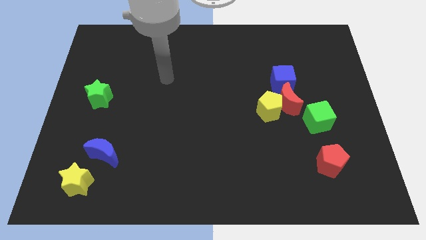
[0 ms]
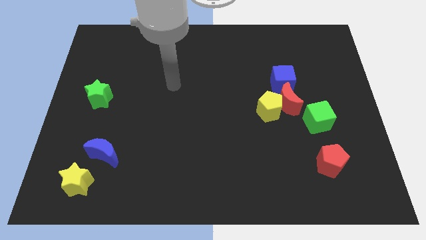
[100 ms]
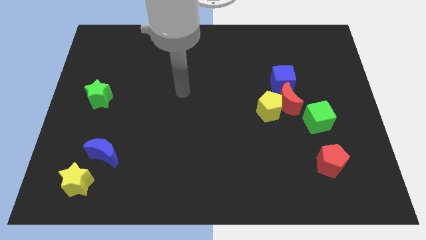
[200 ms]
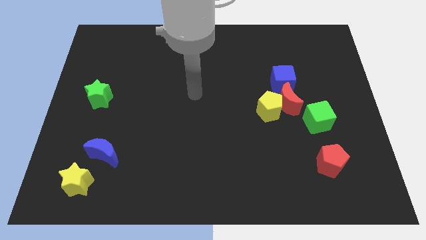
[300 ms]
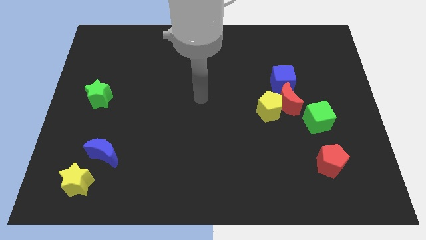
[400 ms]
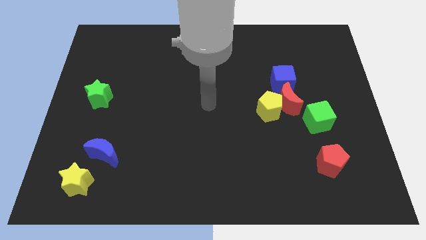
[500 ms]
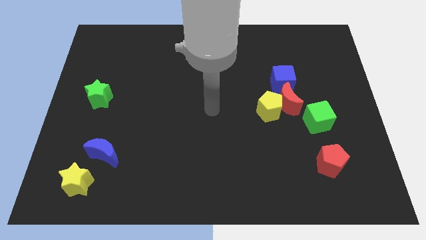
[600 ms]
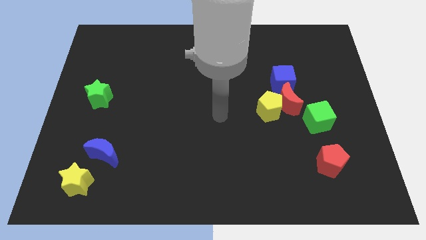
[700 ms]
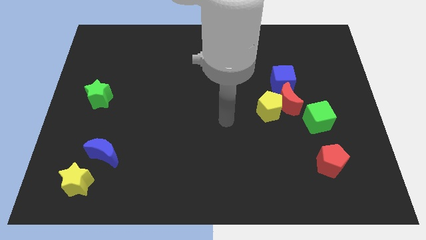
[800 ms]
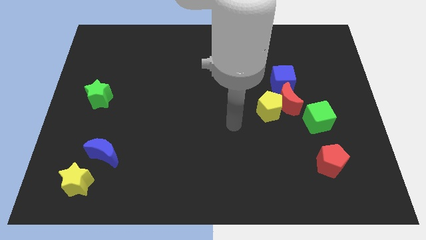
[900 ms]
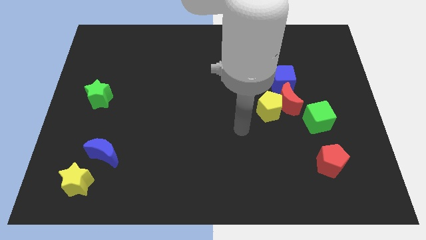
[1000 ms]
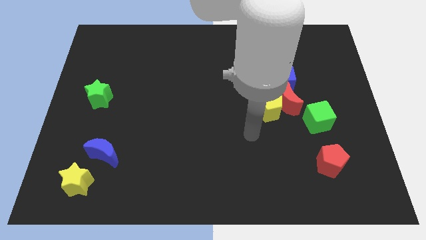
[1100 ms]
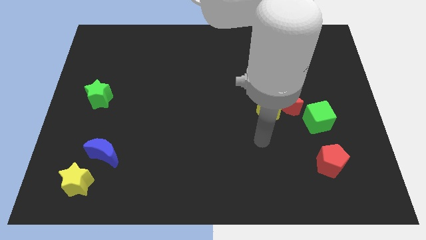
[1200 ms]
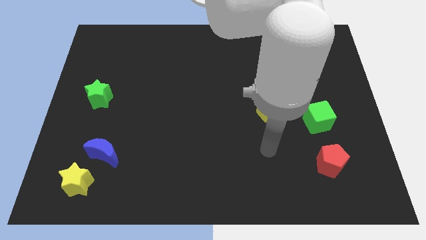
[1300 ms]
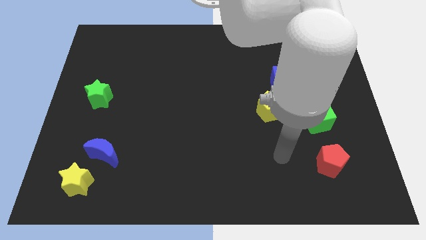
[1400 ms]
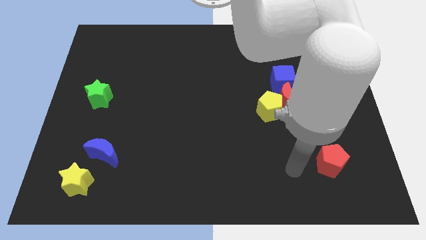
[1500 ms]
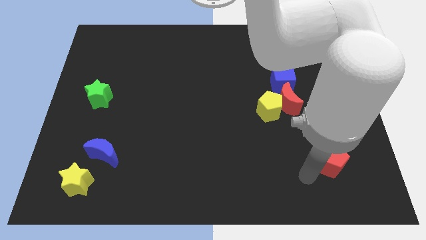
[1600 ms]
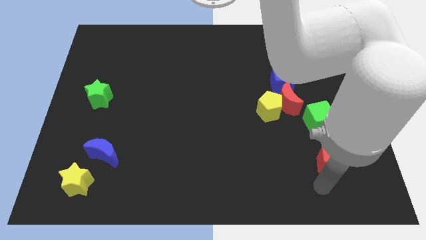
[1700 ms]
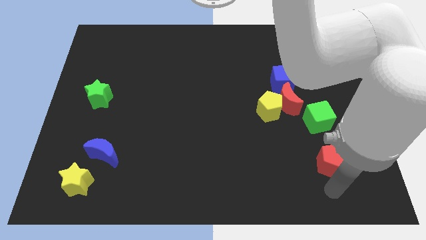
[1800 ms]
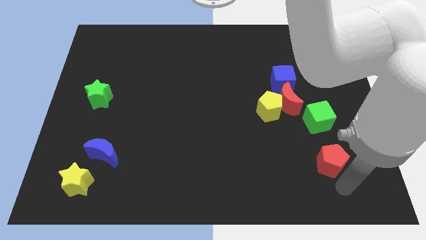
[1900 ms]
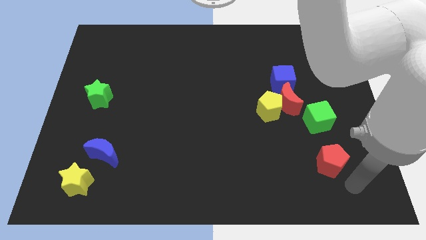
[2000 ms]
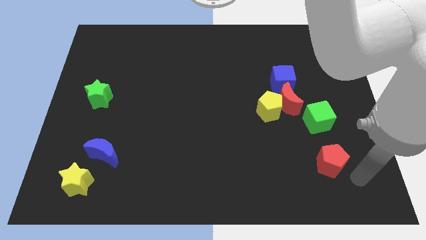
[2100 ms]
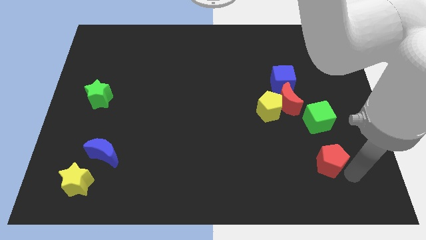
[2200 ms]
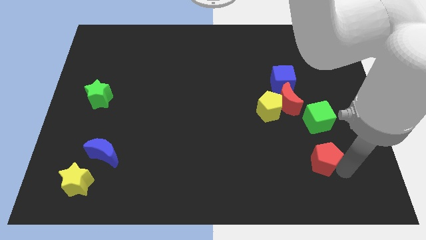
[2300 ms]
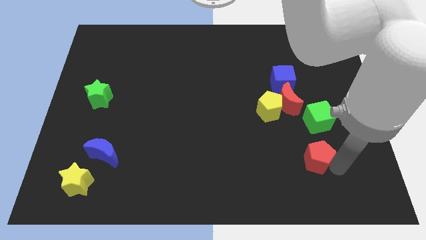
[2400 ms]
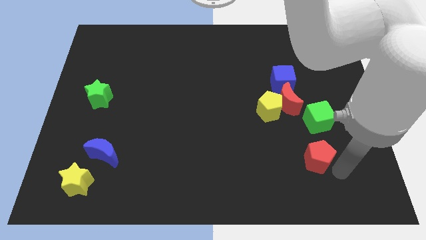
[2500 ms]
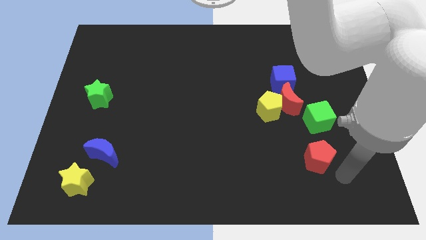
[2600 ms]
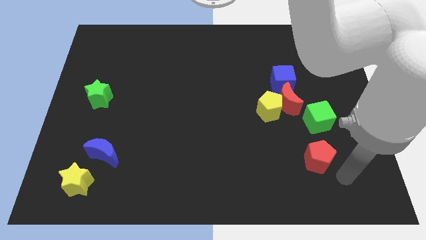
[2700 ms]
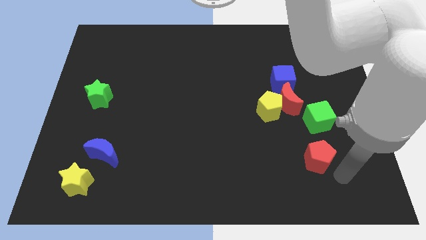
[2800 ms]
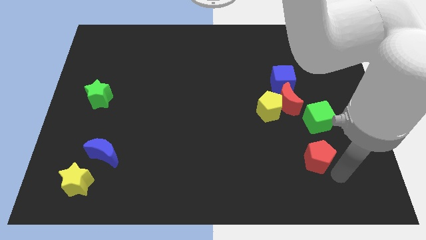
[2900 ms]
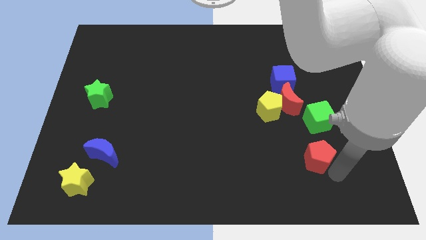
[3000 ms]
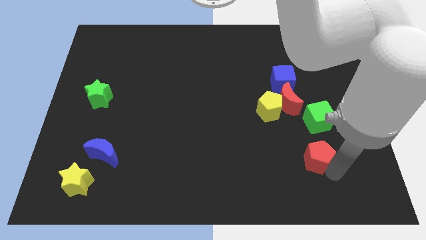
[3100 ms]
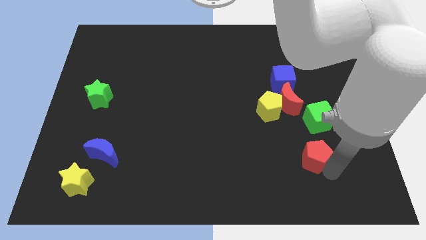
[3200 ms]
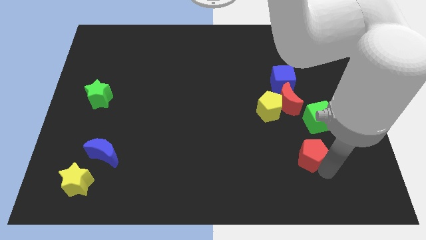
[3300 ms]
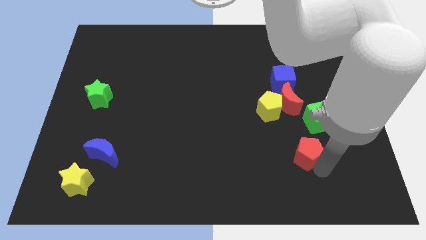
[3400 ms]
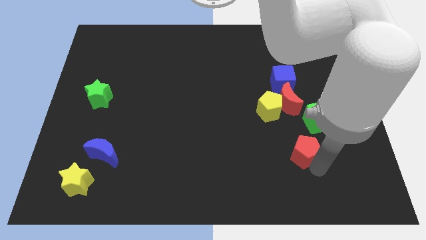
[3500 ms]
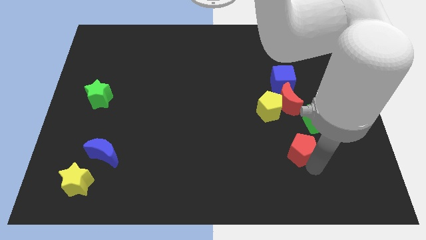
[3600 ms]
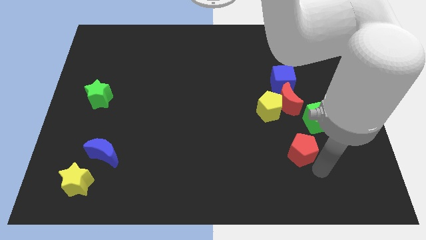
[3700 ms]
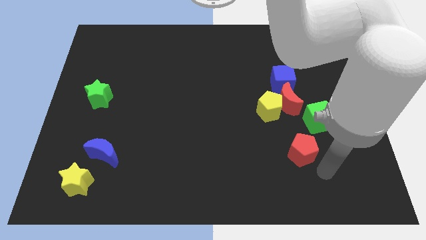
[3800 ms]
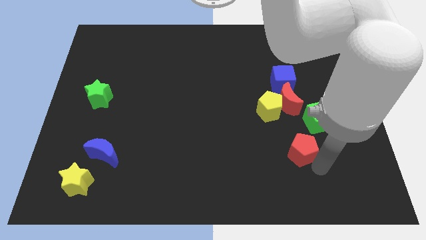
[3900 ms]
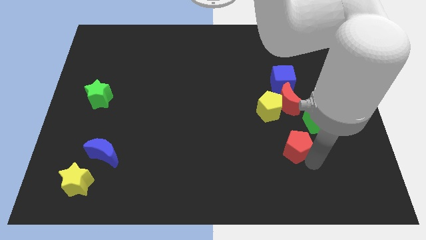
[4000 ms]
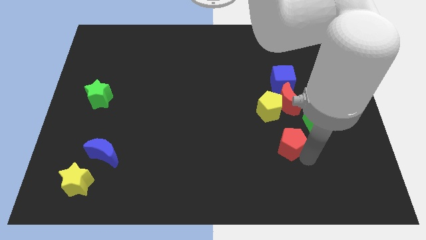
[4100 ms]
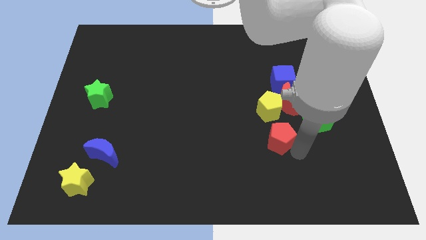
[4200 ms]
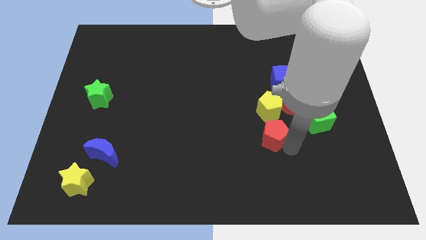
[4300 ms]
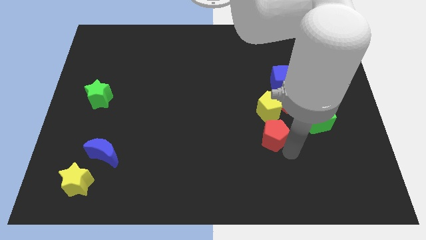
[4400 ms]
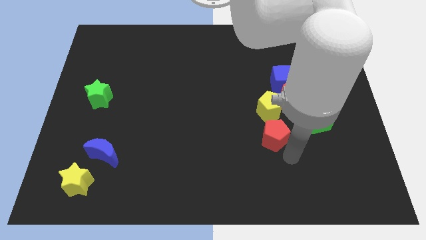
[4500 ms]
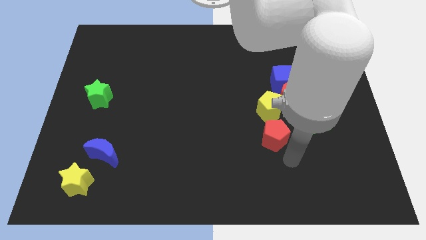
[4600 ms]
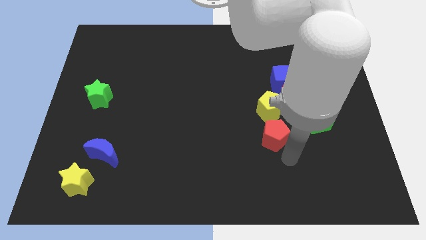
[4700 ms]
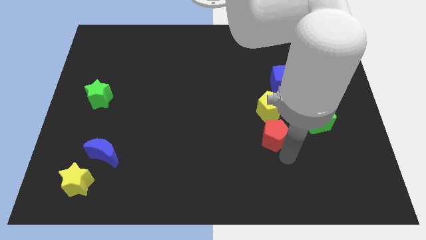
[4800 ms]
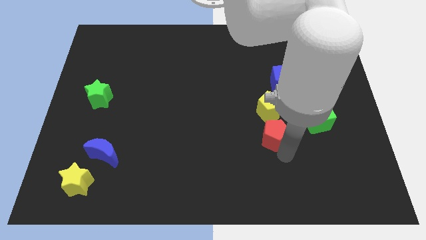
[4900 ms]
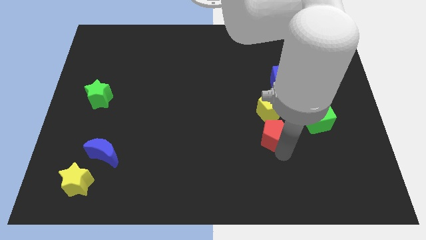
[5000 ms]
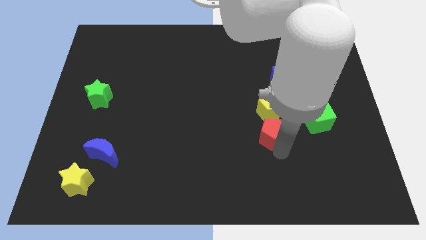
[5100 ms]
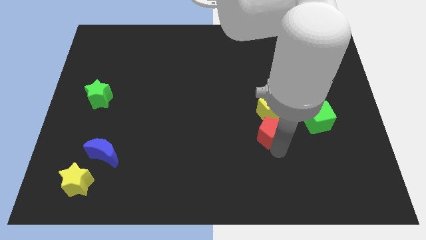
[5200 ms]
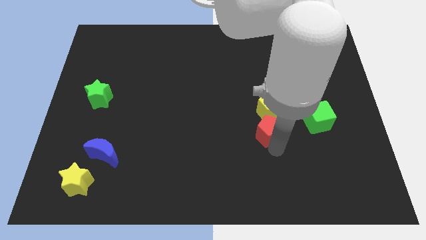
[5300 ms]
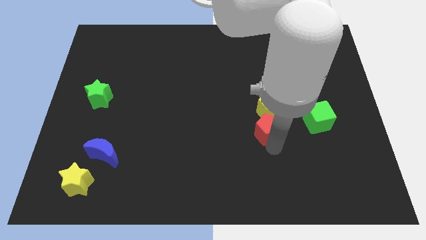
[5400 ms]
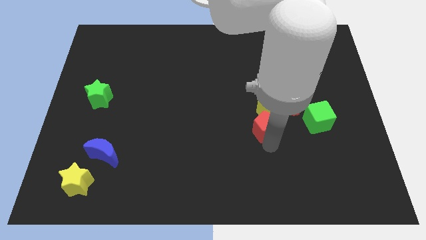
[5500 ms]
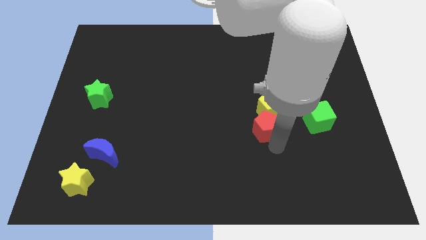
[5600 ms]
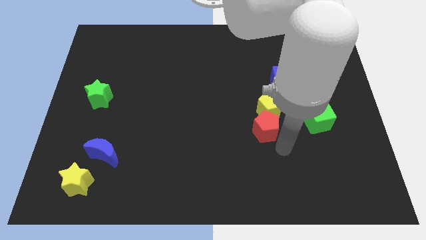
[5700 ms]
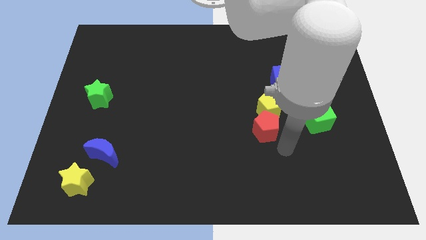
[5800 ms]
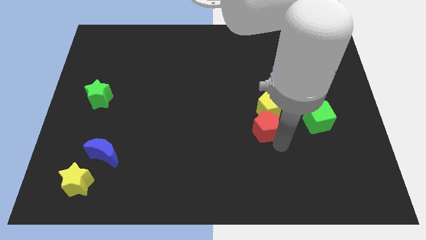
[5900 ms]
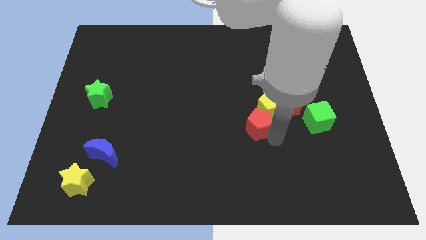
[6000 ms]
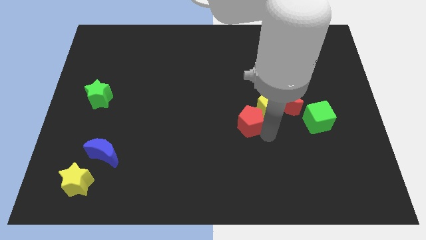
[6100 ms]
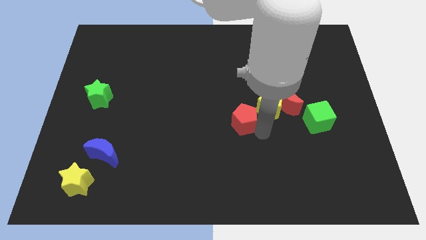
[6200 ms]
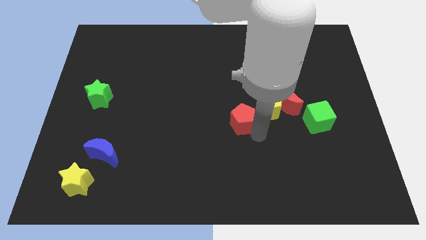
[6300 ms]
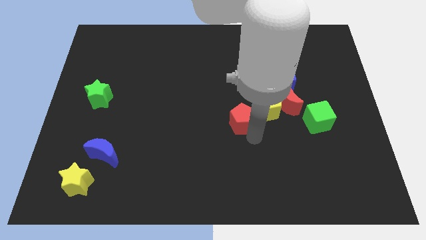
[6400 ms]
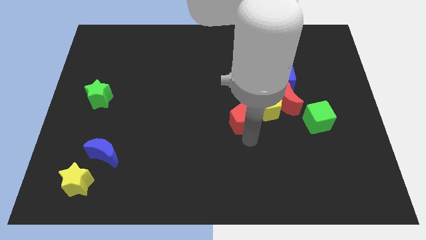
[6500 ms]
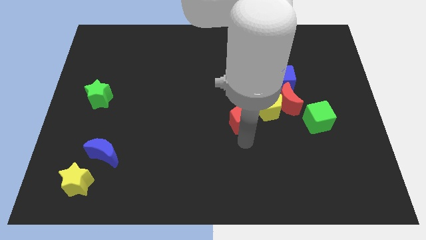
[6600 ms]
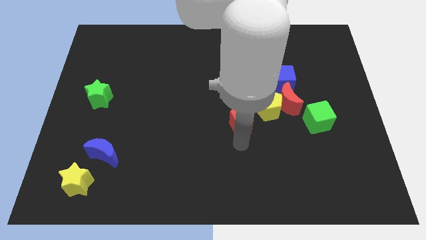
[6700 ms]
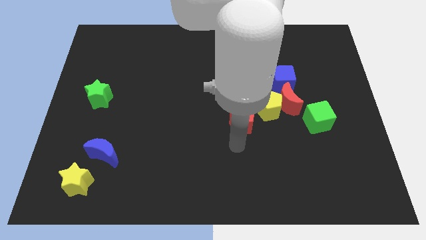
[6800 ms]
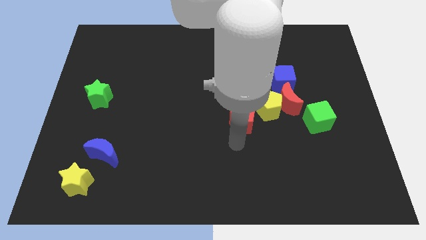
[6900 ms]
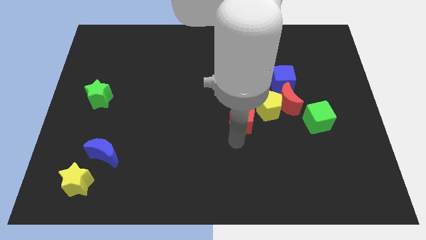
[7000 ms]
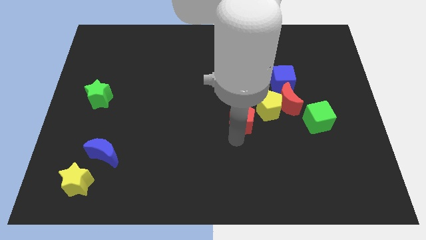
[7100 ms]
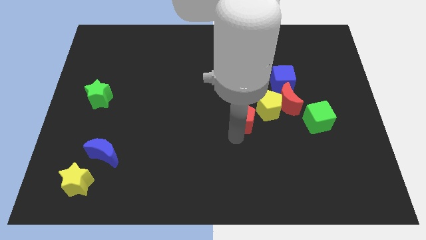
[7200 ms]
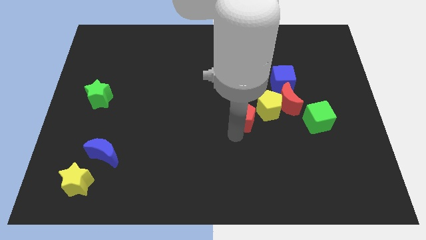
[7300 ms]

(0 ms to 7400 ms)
slide the red pentagon up and then to the left

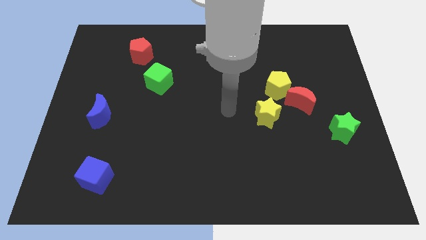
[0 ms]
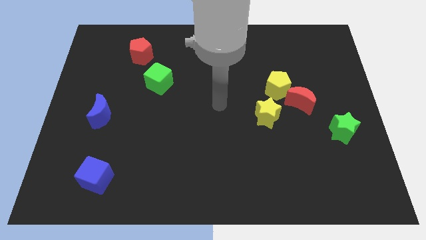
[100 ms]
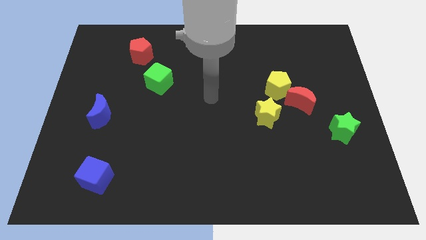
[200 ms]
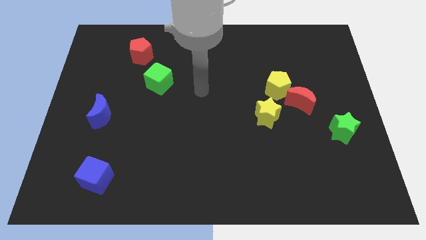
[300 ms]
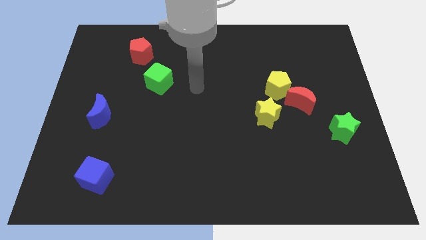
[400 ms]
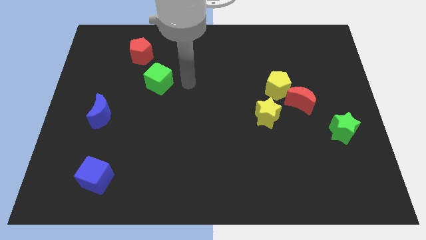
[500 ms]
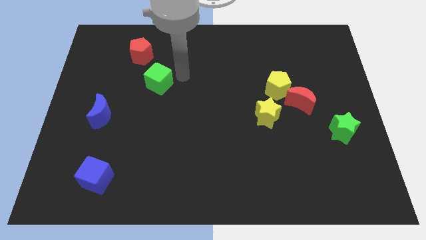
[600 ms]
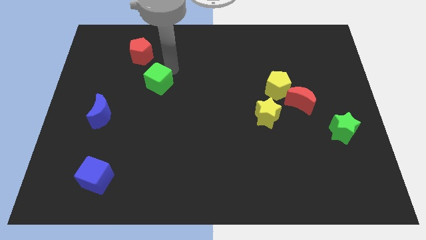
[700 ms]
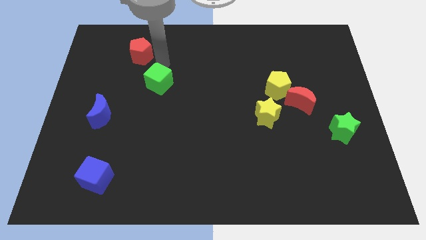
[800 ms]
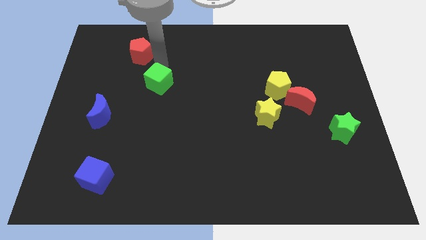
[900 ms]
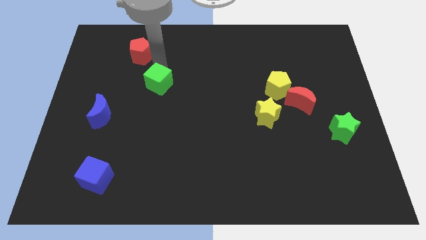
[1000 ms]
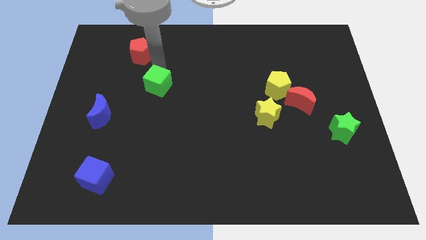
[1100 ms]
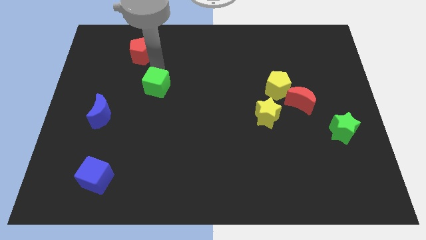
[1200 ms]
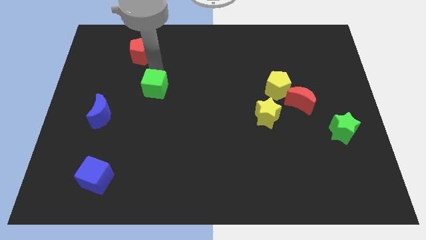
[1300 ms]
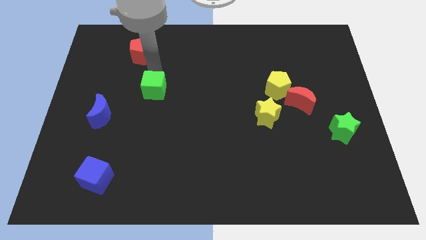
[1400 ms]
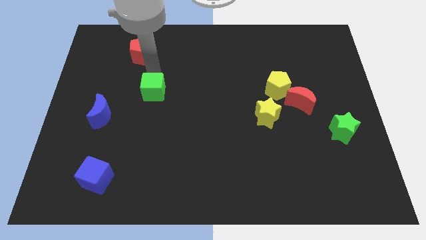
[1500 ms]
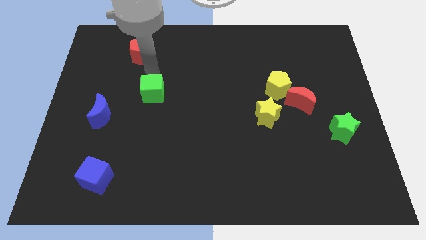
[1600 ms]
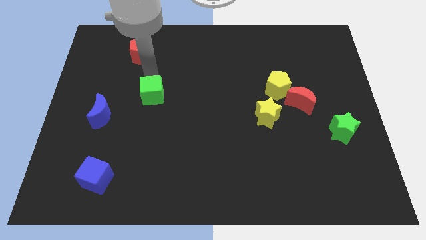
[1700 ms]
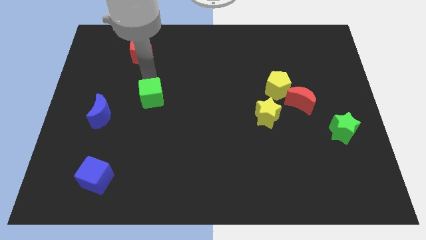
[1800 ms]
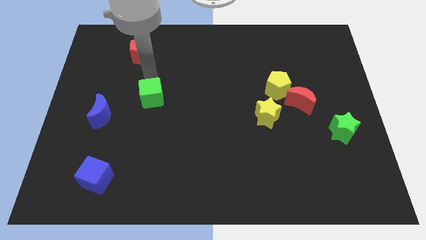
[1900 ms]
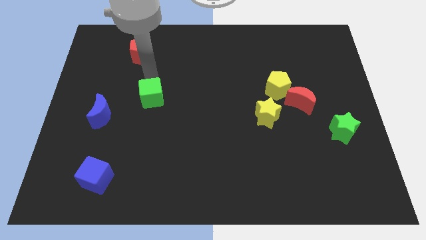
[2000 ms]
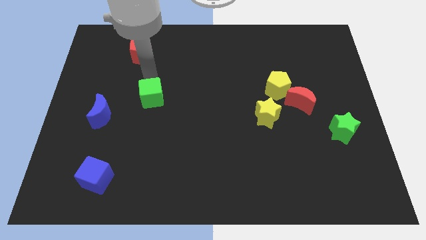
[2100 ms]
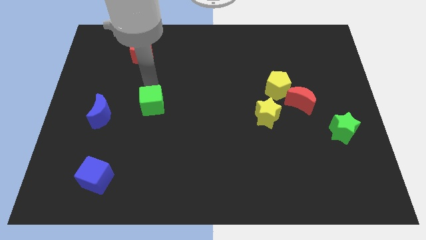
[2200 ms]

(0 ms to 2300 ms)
slightly slide the green cube downwards
